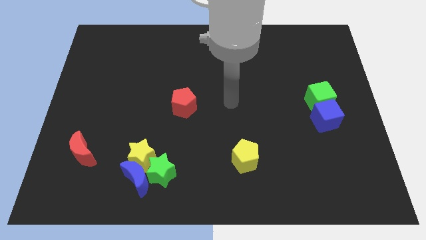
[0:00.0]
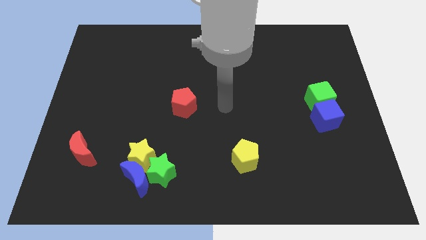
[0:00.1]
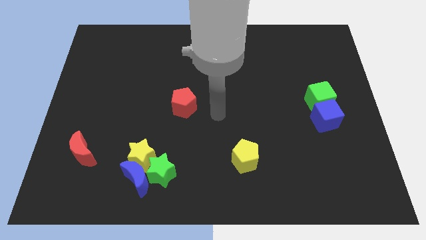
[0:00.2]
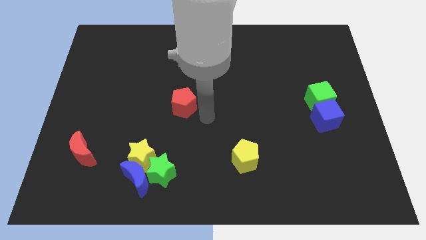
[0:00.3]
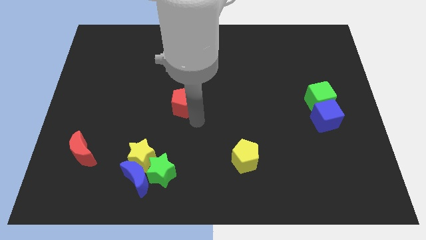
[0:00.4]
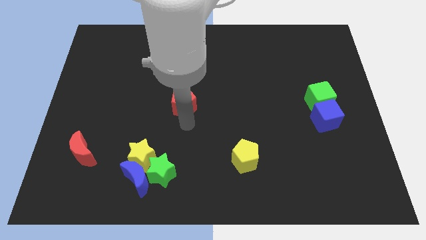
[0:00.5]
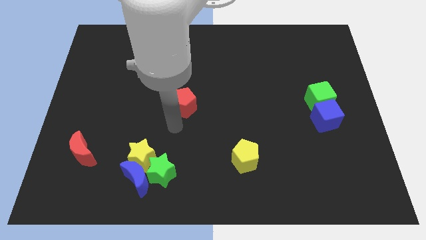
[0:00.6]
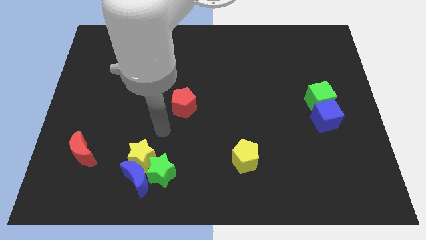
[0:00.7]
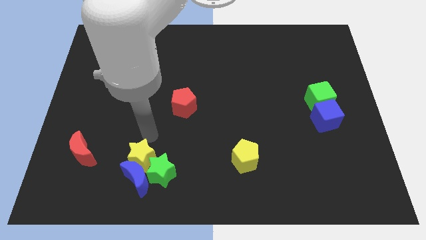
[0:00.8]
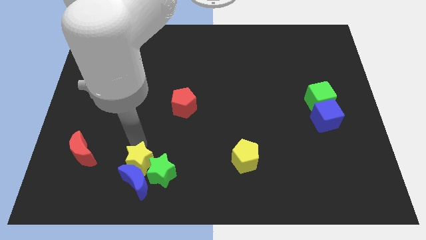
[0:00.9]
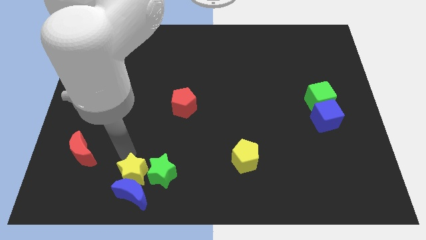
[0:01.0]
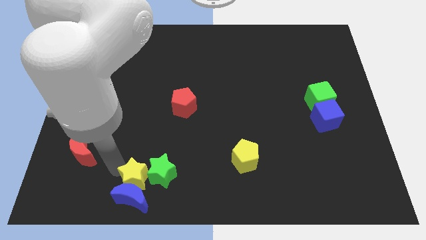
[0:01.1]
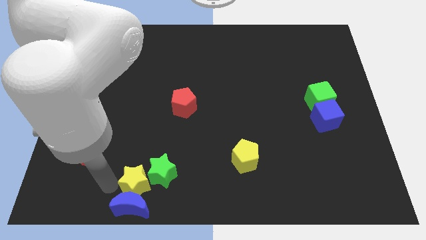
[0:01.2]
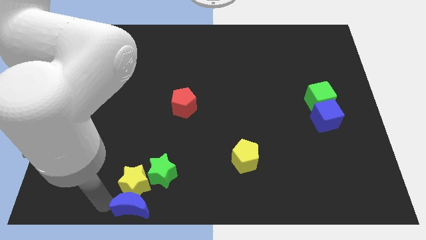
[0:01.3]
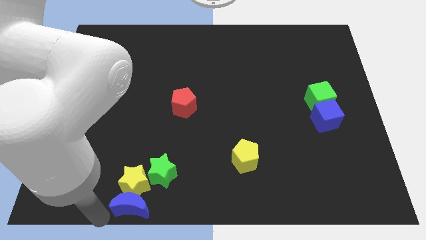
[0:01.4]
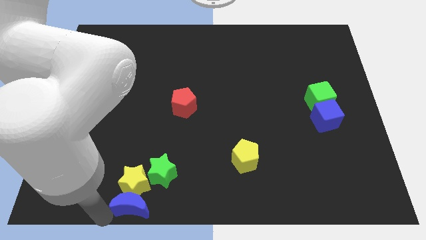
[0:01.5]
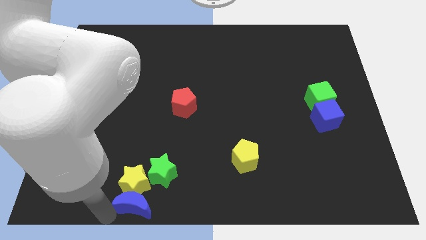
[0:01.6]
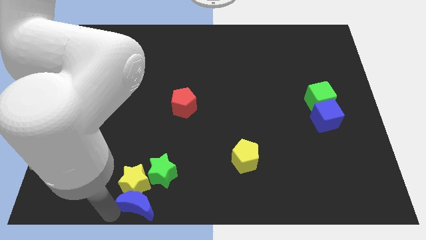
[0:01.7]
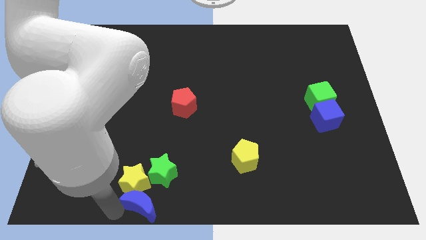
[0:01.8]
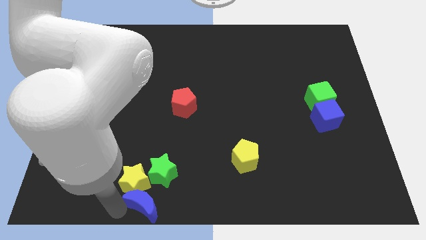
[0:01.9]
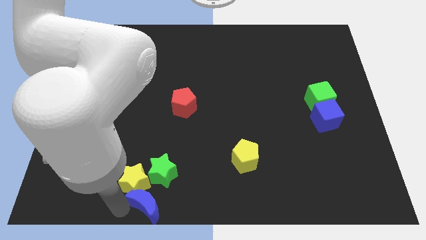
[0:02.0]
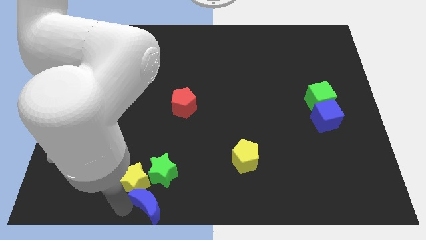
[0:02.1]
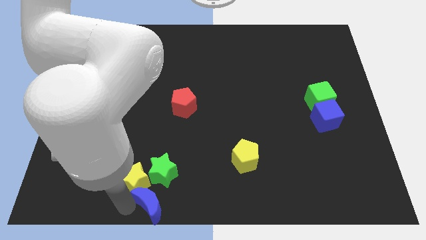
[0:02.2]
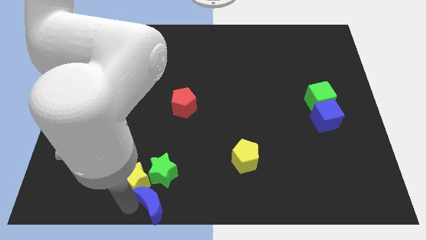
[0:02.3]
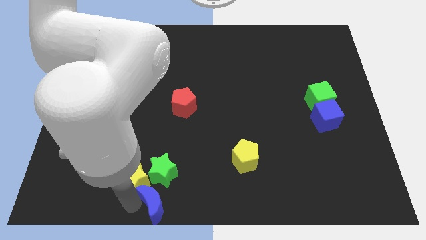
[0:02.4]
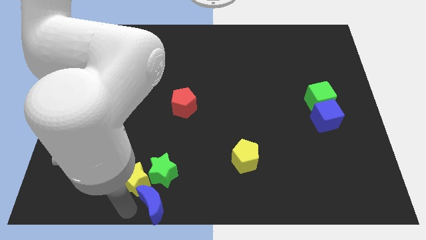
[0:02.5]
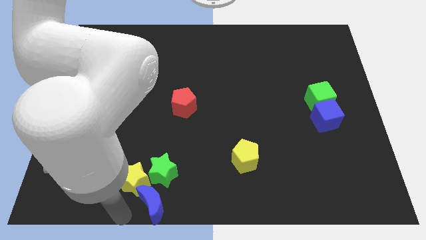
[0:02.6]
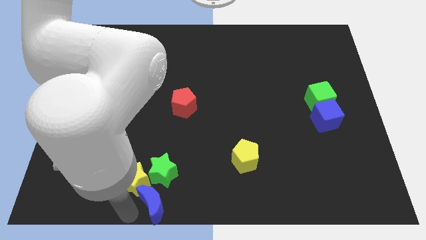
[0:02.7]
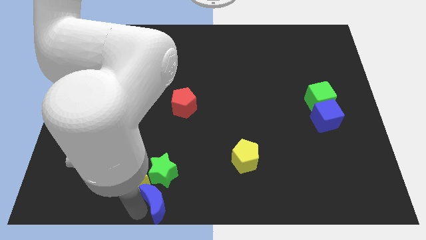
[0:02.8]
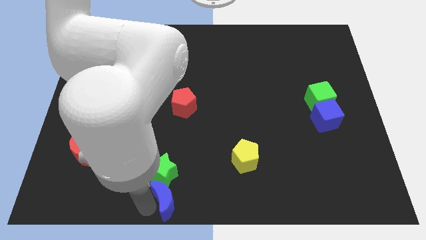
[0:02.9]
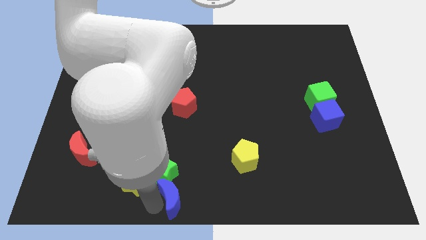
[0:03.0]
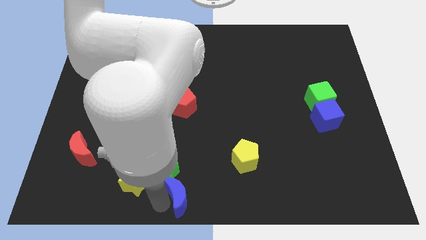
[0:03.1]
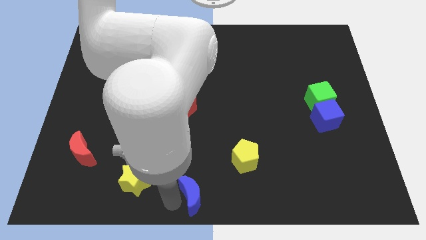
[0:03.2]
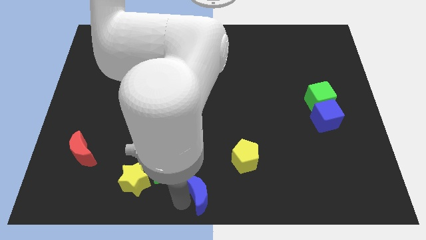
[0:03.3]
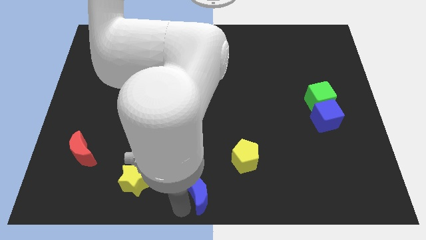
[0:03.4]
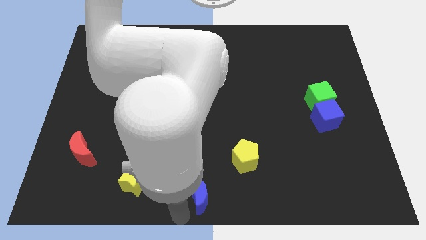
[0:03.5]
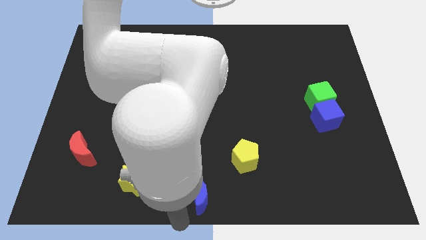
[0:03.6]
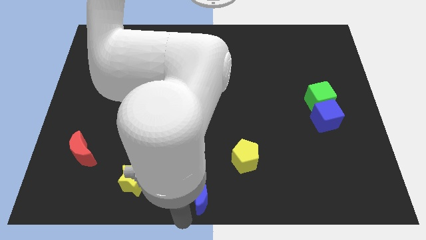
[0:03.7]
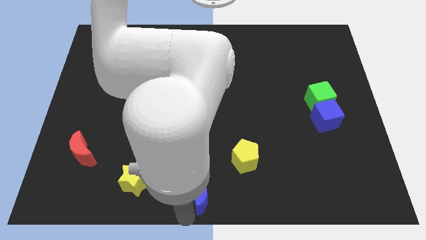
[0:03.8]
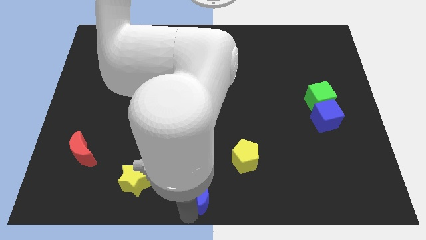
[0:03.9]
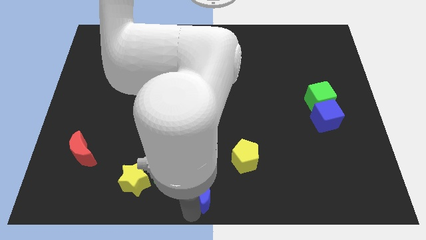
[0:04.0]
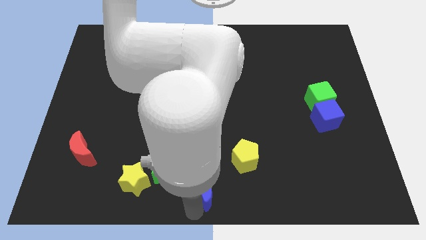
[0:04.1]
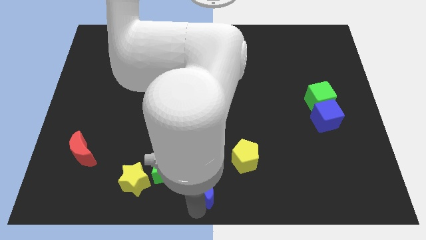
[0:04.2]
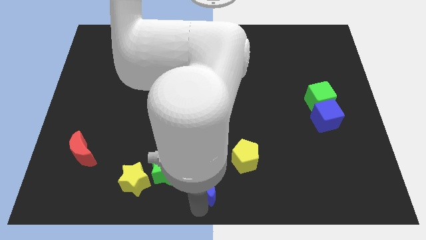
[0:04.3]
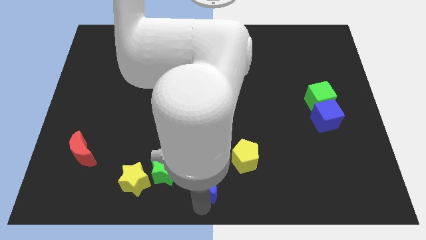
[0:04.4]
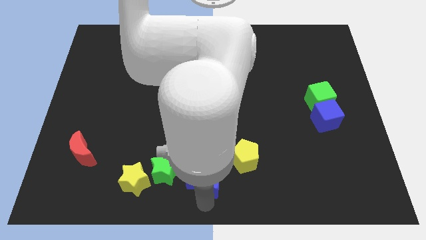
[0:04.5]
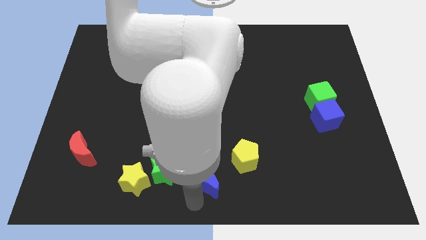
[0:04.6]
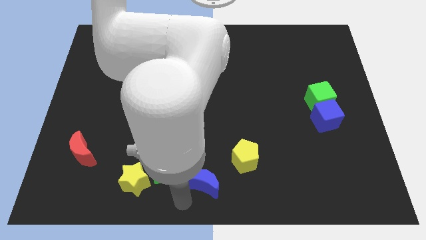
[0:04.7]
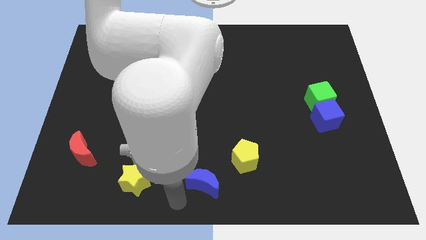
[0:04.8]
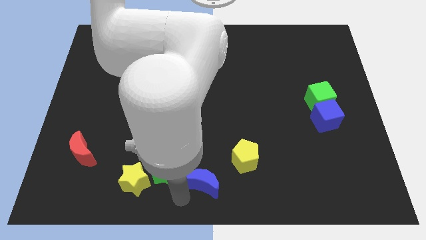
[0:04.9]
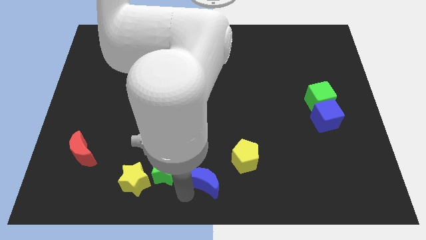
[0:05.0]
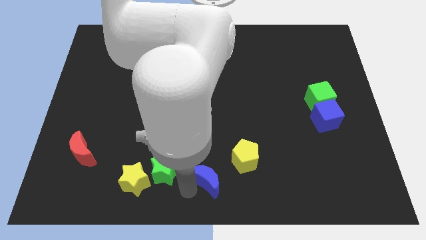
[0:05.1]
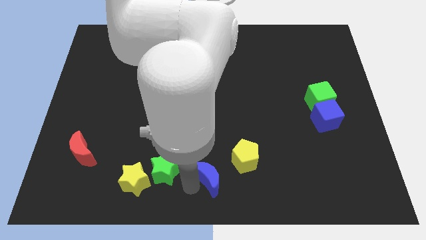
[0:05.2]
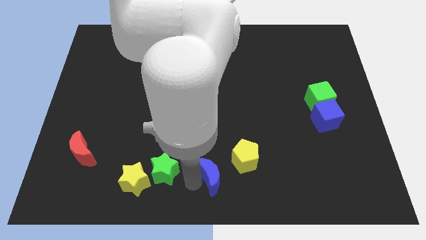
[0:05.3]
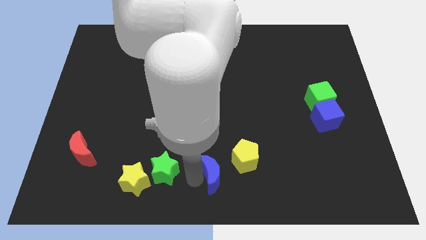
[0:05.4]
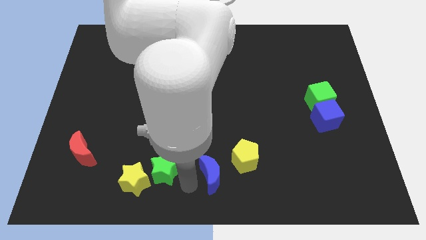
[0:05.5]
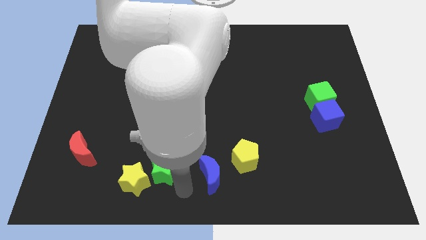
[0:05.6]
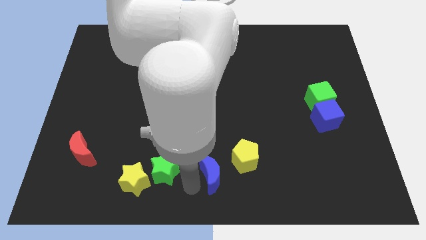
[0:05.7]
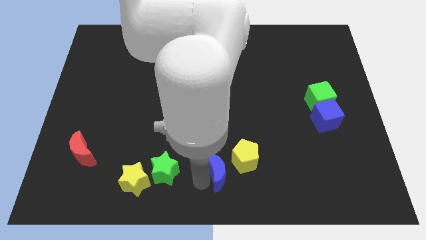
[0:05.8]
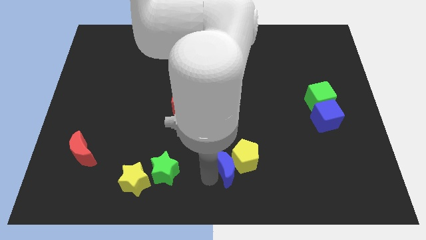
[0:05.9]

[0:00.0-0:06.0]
put the blue moon close to the yellow pentagon
